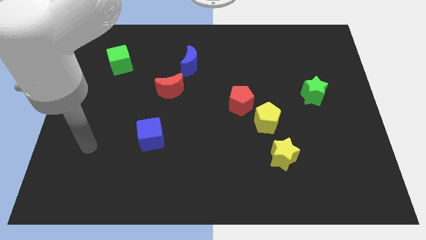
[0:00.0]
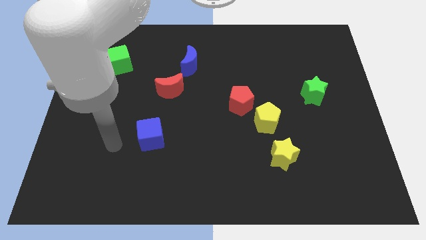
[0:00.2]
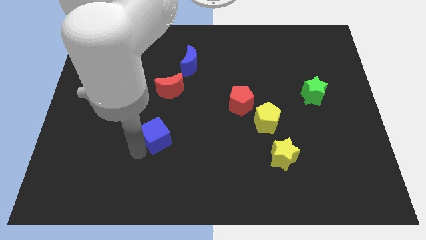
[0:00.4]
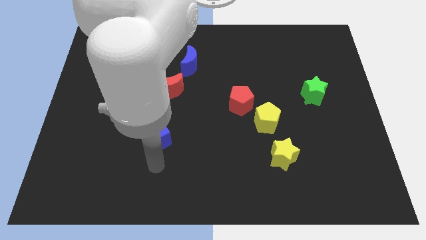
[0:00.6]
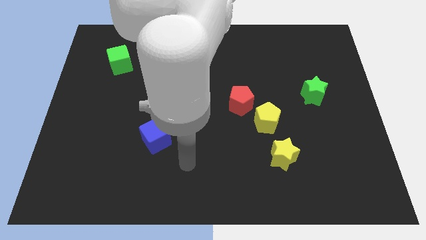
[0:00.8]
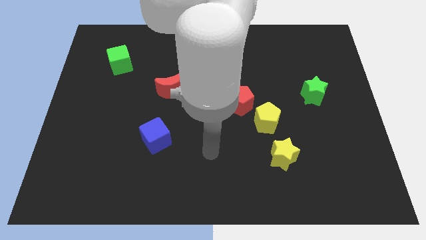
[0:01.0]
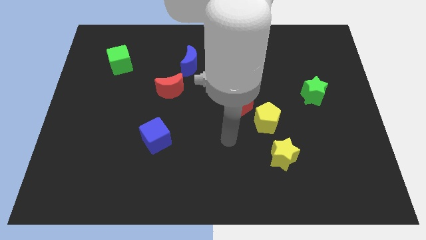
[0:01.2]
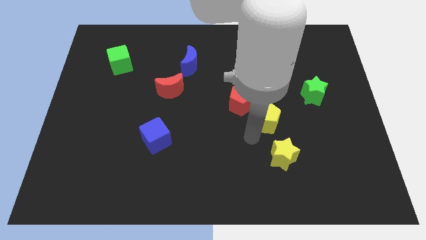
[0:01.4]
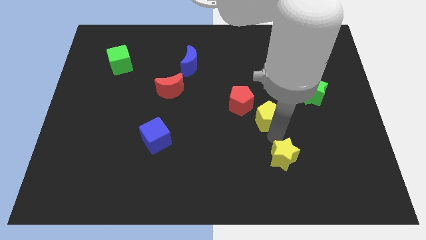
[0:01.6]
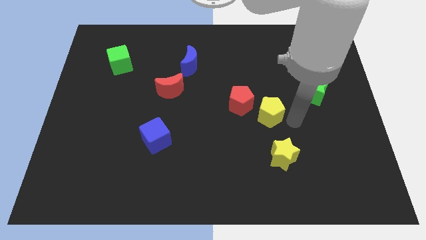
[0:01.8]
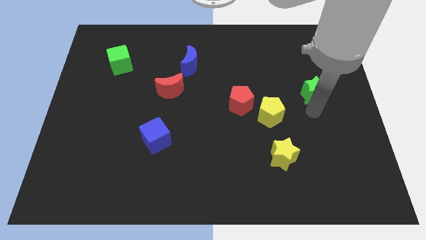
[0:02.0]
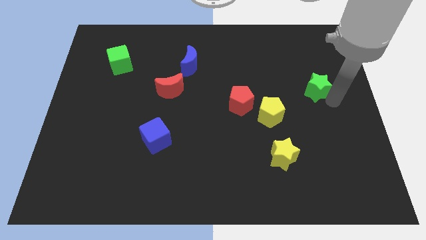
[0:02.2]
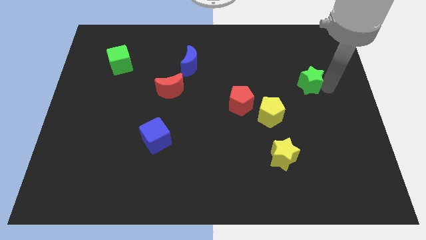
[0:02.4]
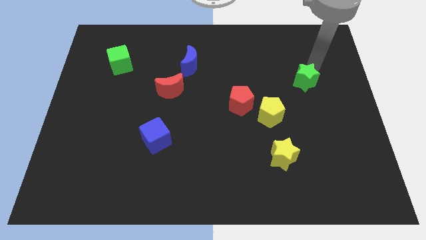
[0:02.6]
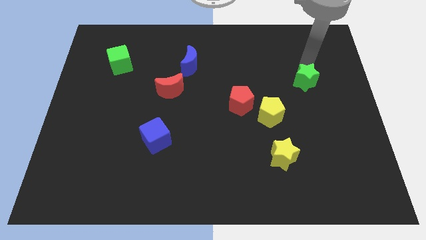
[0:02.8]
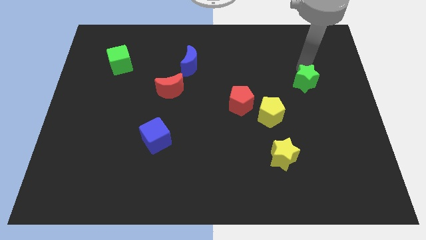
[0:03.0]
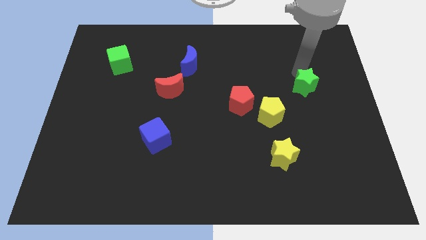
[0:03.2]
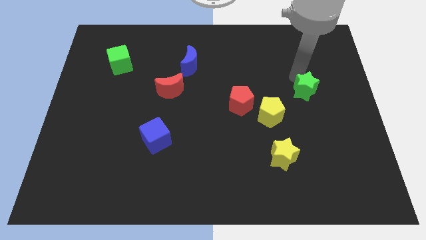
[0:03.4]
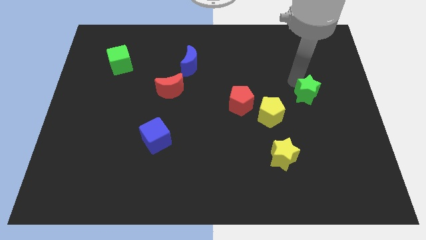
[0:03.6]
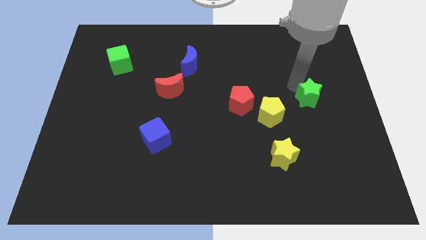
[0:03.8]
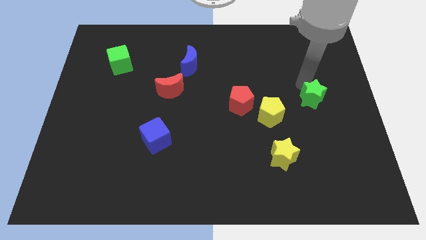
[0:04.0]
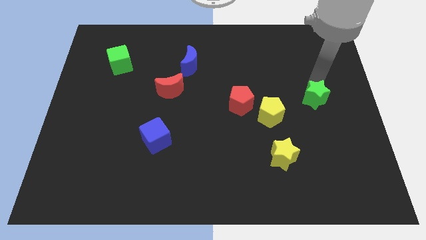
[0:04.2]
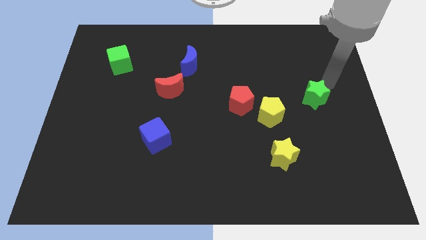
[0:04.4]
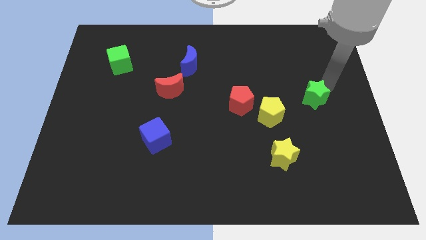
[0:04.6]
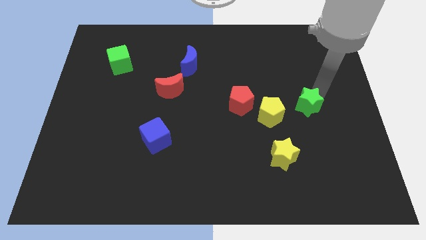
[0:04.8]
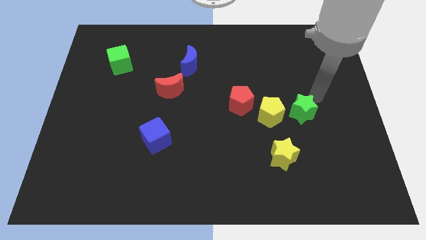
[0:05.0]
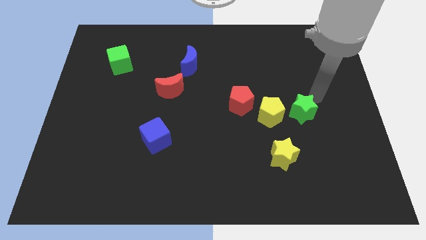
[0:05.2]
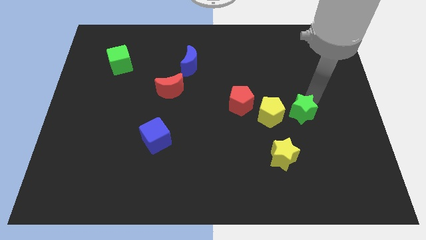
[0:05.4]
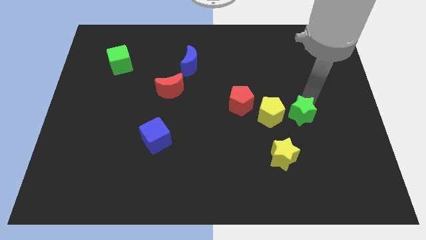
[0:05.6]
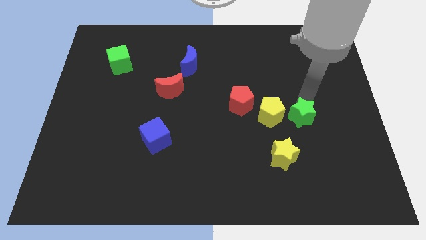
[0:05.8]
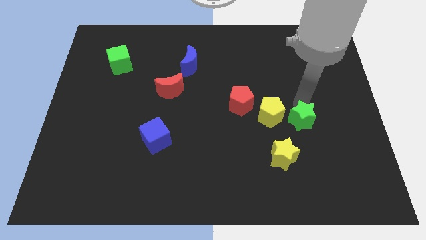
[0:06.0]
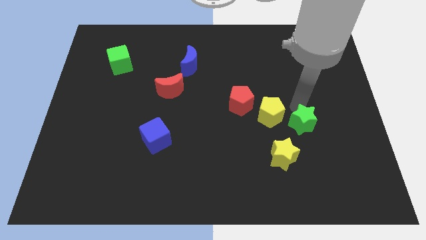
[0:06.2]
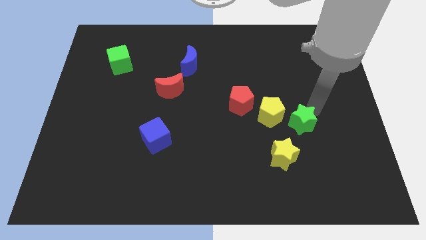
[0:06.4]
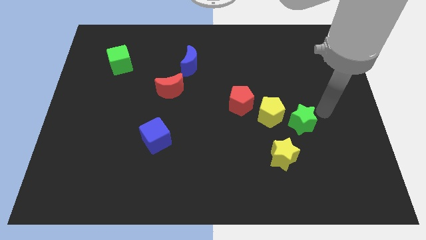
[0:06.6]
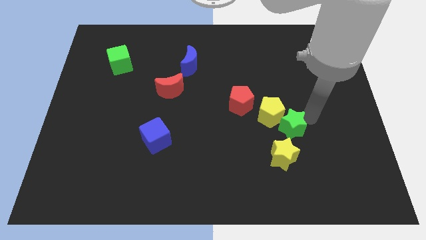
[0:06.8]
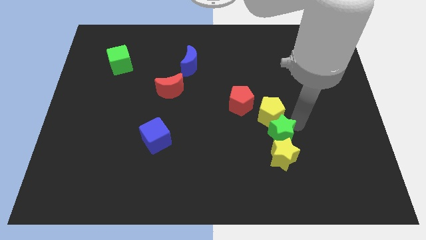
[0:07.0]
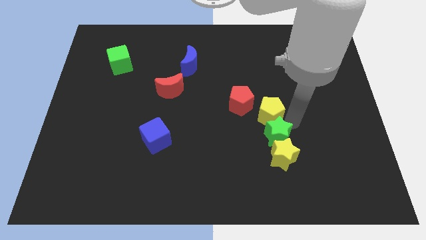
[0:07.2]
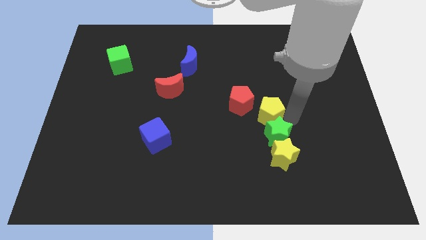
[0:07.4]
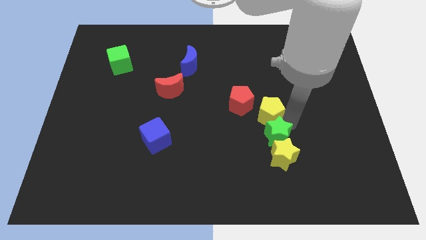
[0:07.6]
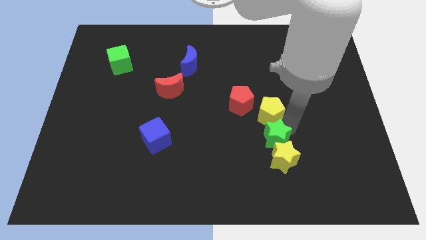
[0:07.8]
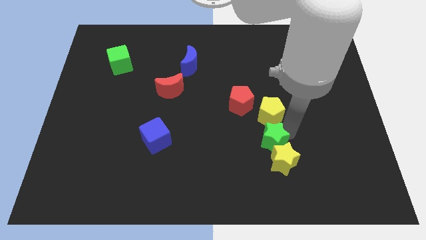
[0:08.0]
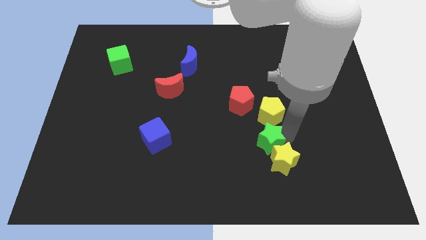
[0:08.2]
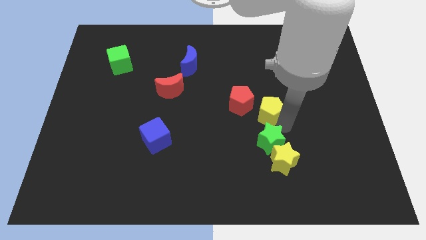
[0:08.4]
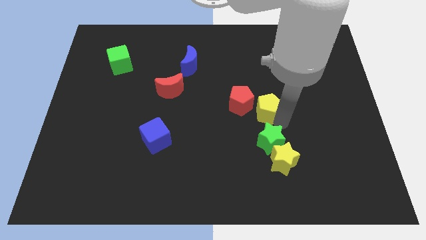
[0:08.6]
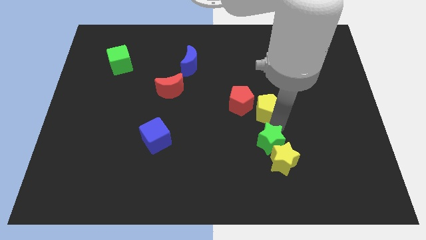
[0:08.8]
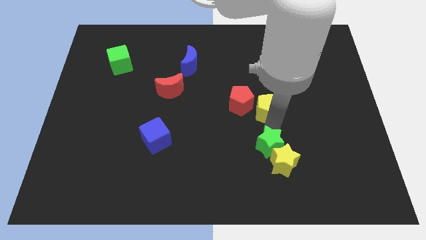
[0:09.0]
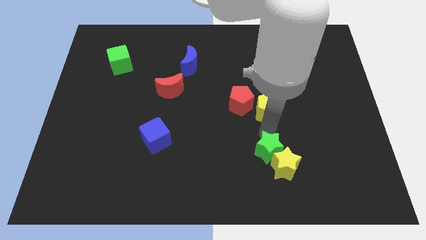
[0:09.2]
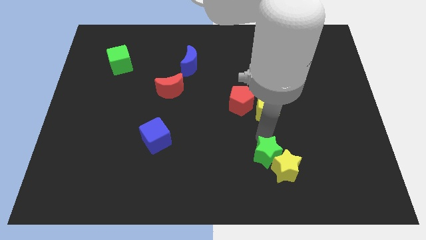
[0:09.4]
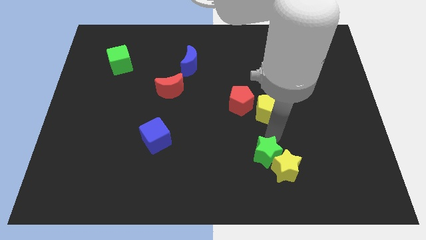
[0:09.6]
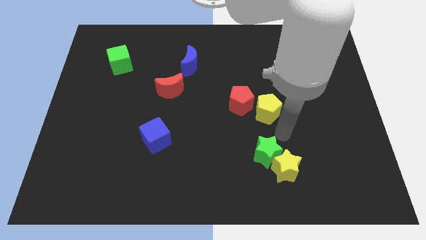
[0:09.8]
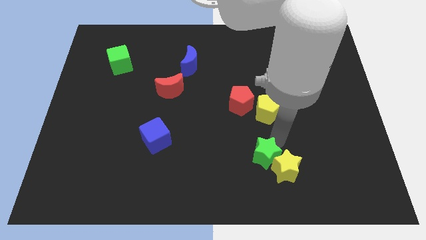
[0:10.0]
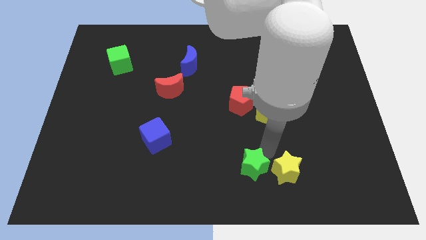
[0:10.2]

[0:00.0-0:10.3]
move the green star to the bottom

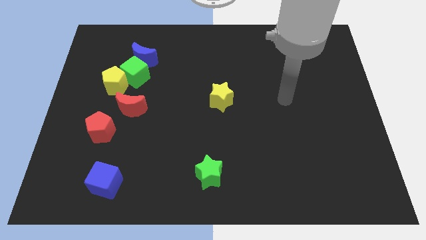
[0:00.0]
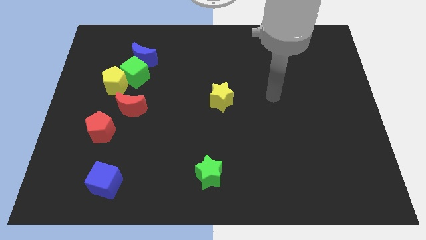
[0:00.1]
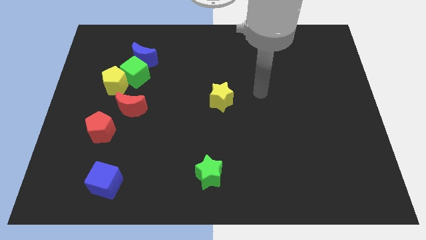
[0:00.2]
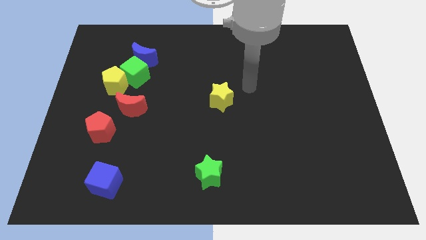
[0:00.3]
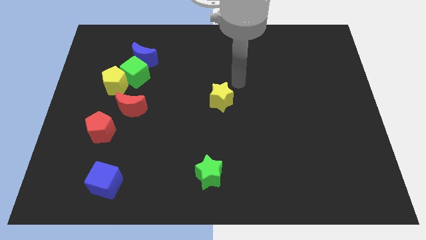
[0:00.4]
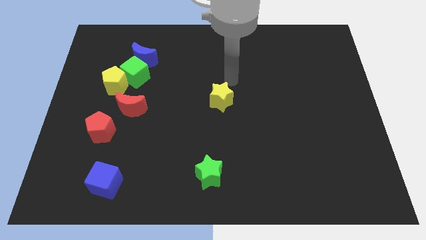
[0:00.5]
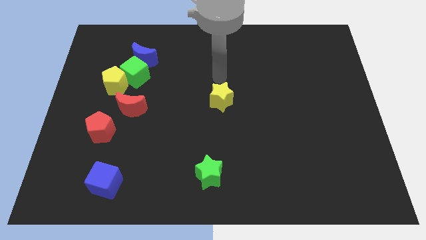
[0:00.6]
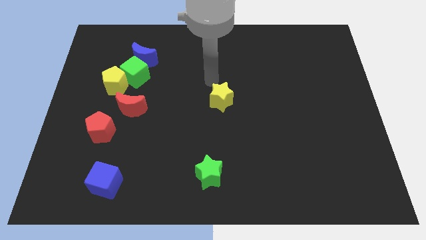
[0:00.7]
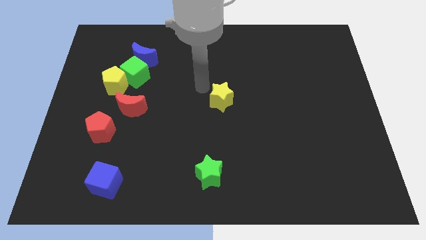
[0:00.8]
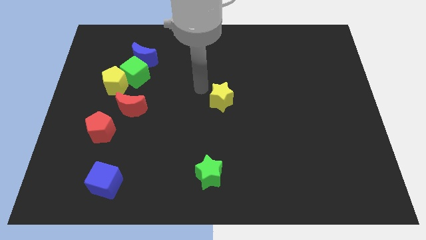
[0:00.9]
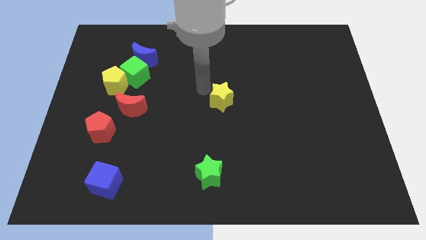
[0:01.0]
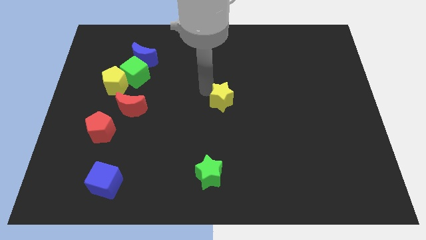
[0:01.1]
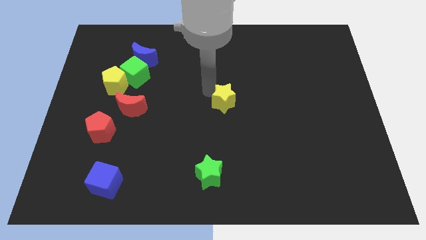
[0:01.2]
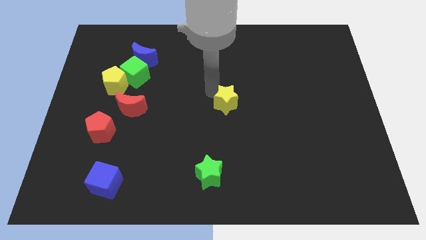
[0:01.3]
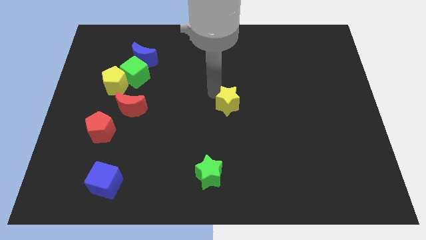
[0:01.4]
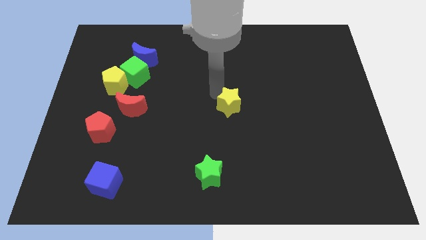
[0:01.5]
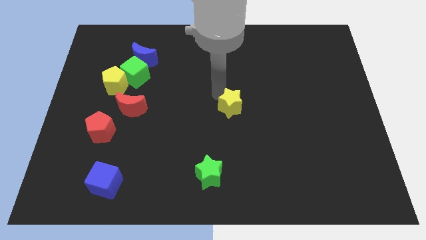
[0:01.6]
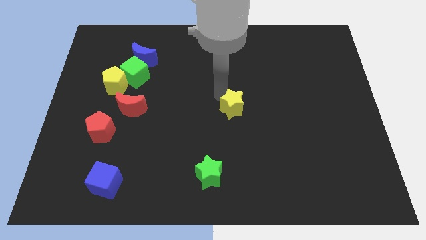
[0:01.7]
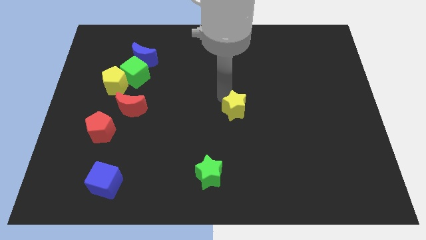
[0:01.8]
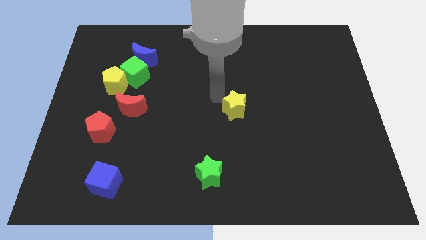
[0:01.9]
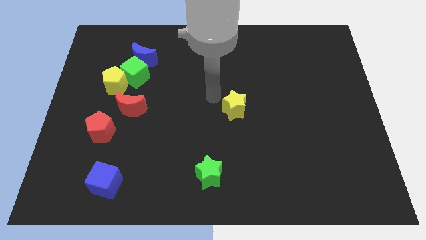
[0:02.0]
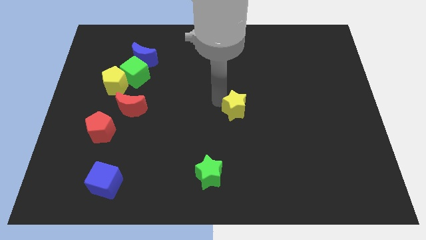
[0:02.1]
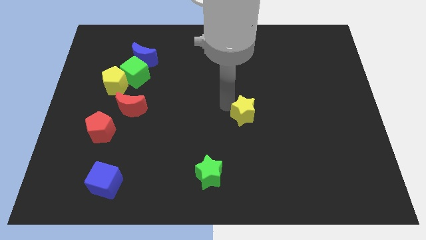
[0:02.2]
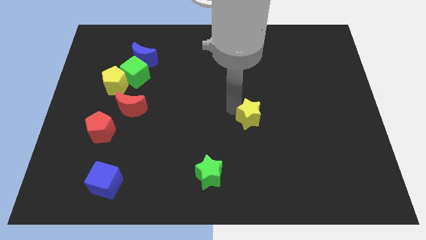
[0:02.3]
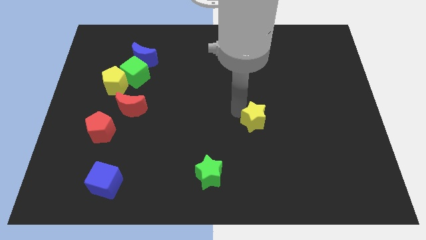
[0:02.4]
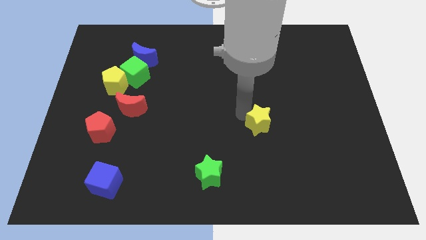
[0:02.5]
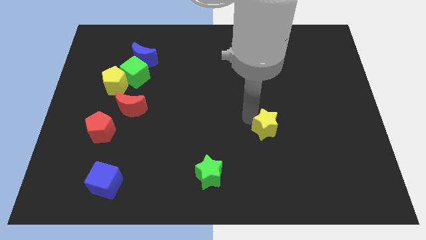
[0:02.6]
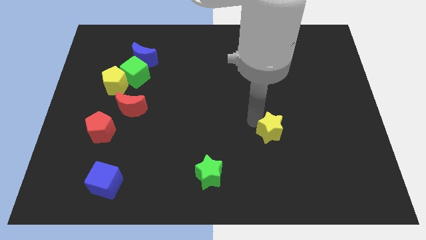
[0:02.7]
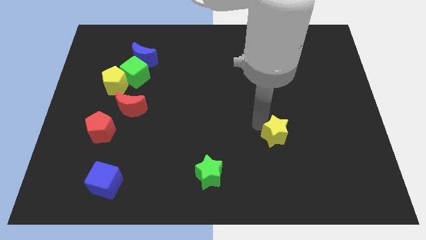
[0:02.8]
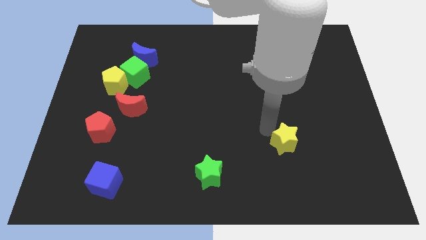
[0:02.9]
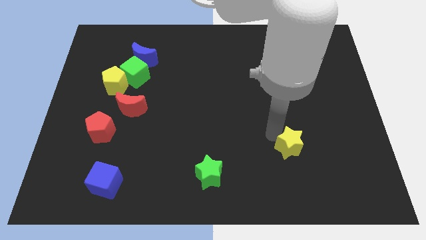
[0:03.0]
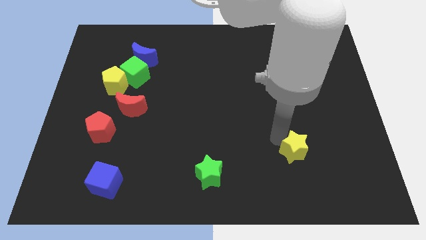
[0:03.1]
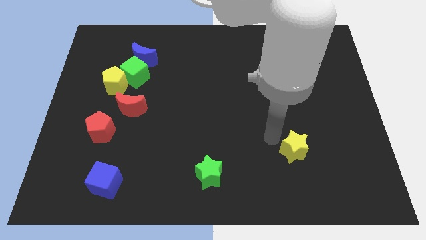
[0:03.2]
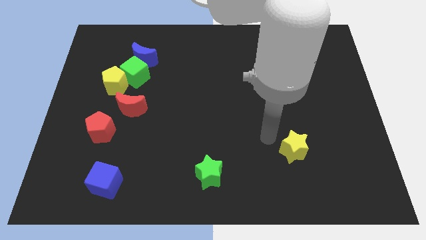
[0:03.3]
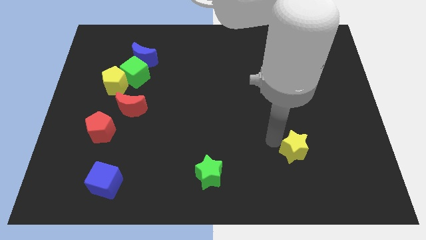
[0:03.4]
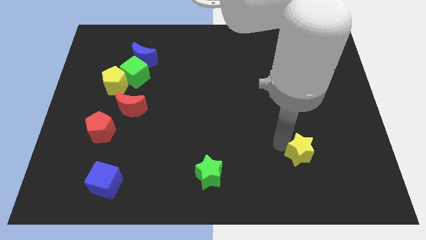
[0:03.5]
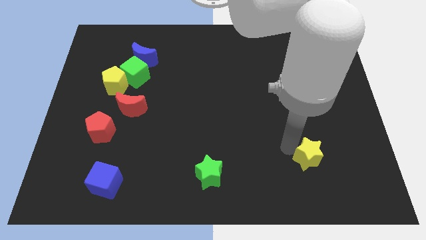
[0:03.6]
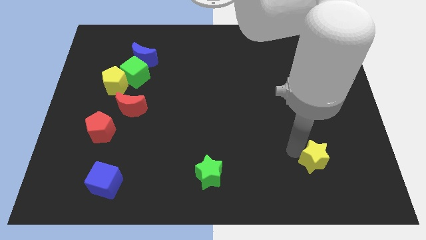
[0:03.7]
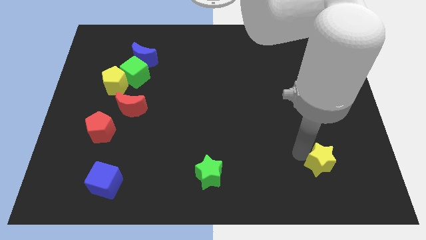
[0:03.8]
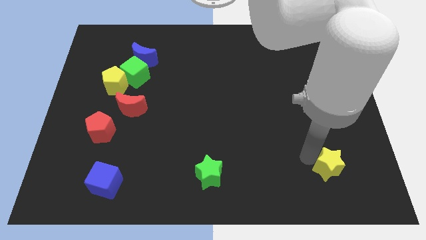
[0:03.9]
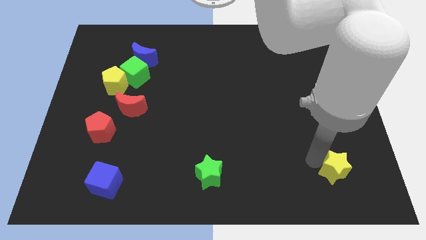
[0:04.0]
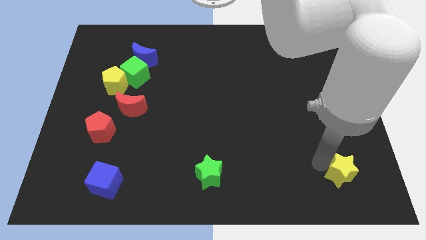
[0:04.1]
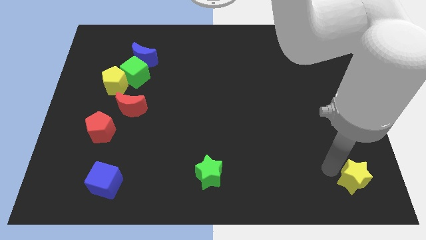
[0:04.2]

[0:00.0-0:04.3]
move the yellow star to the lower right corner
